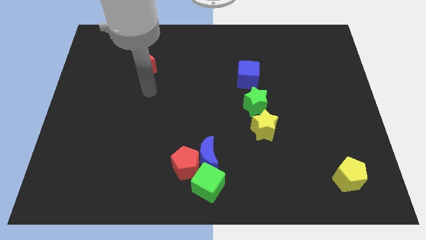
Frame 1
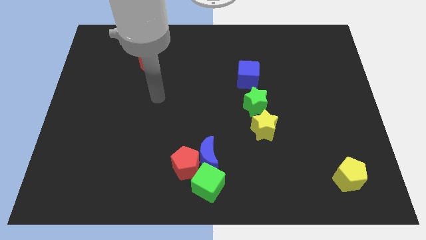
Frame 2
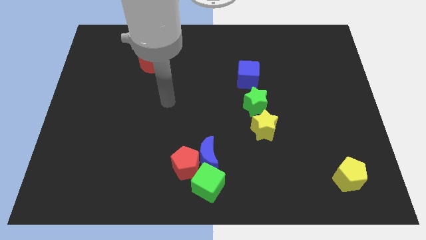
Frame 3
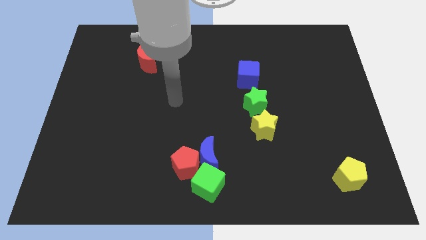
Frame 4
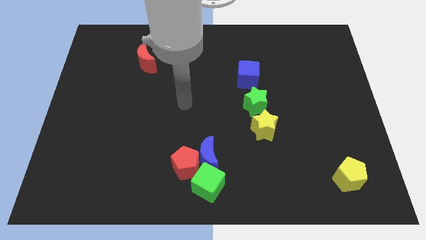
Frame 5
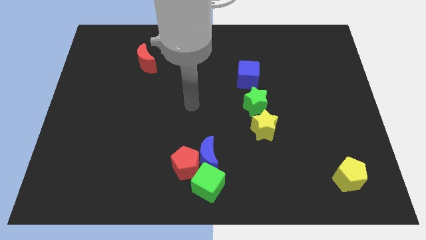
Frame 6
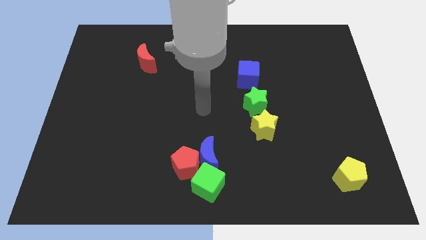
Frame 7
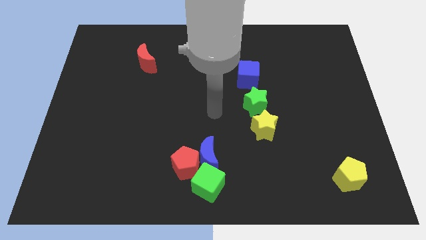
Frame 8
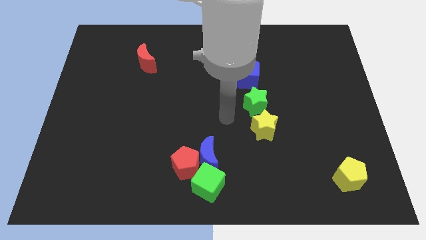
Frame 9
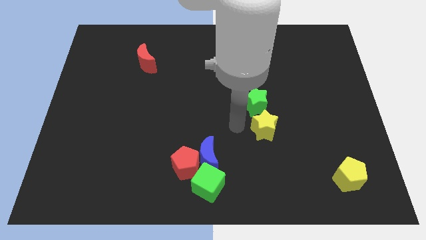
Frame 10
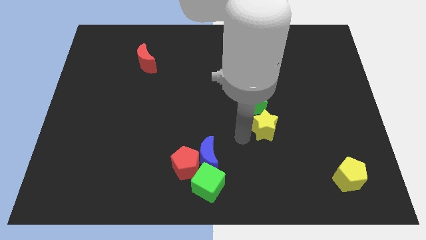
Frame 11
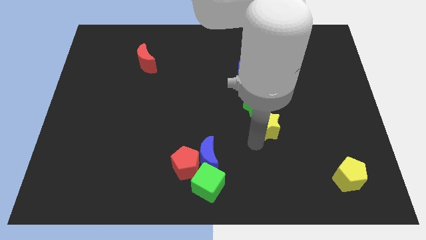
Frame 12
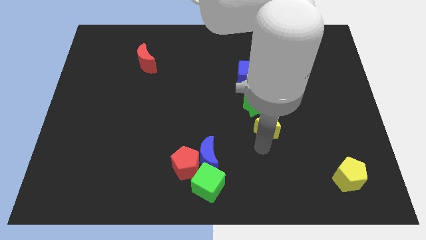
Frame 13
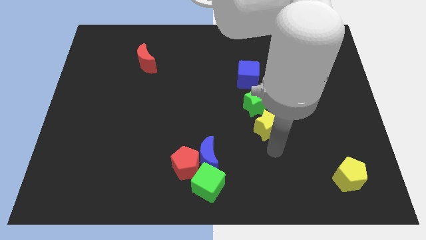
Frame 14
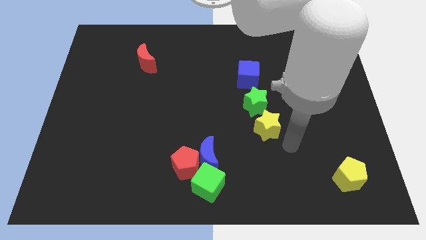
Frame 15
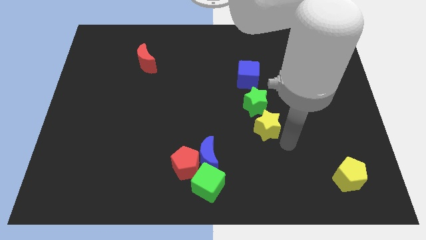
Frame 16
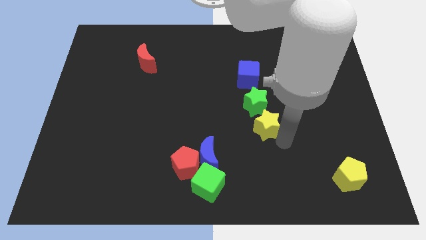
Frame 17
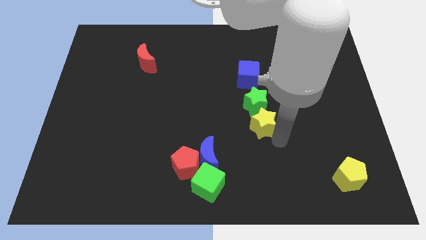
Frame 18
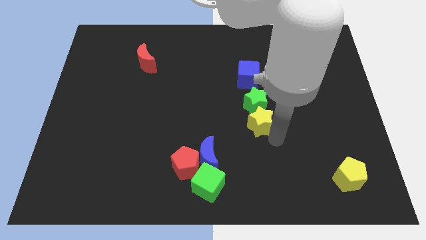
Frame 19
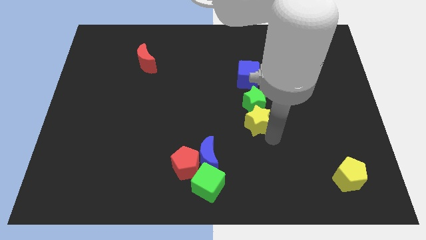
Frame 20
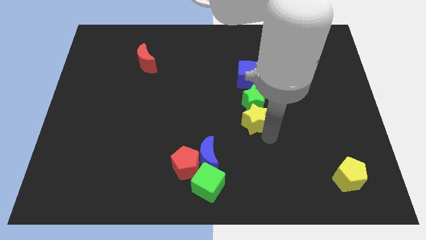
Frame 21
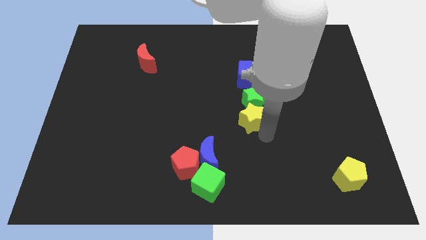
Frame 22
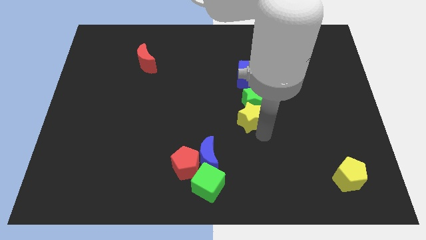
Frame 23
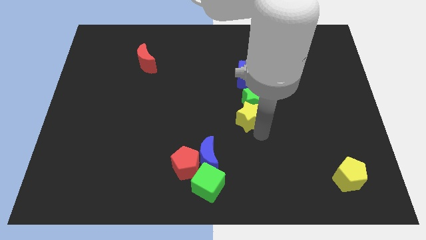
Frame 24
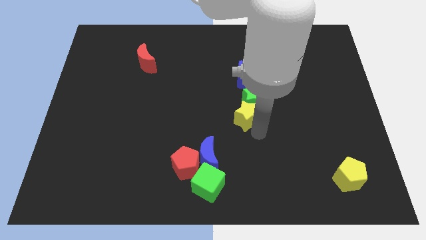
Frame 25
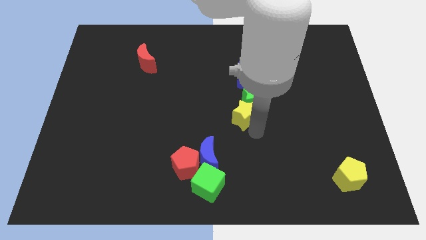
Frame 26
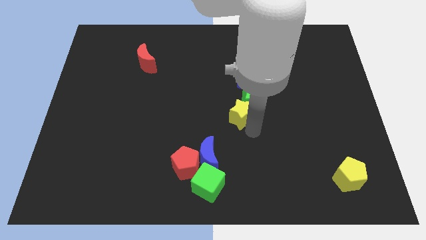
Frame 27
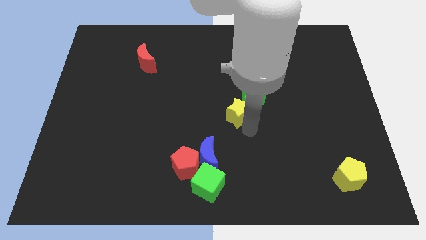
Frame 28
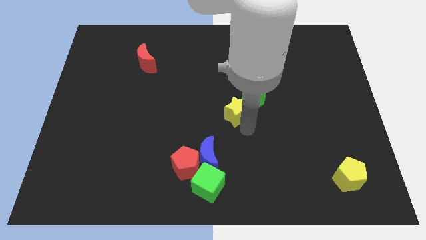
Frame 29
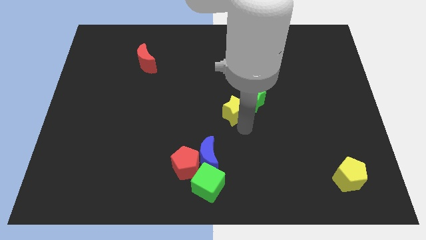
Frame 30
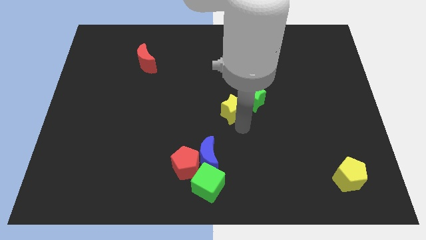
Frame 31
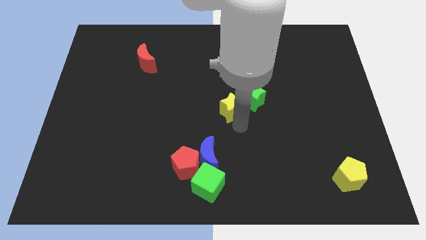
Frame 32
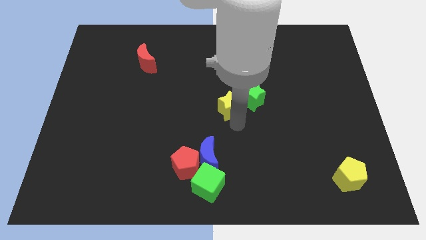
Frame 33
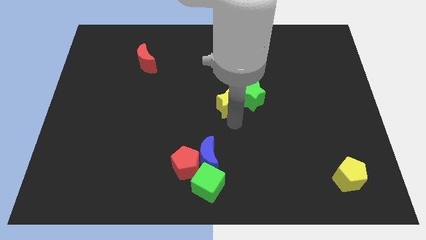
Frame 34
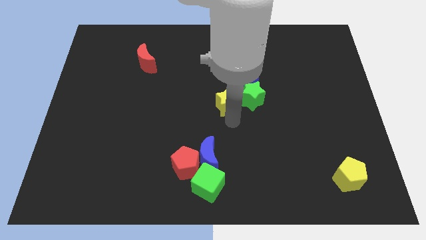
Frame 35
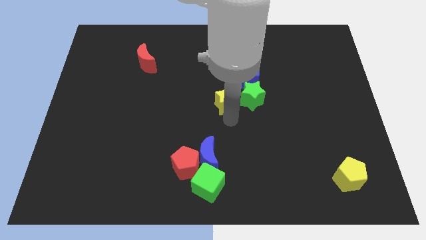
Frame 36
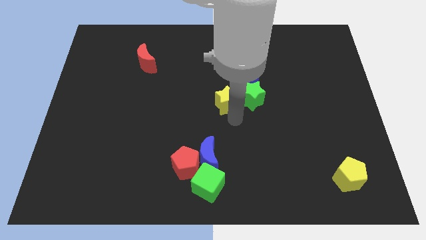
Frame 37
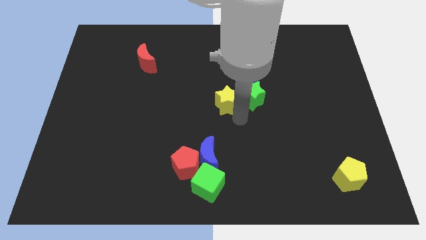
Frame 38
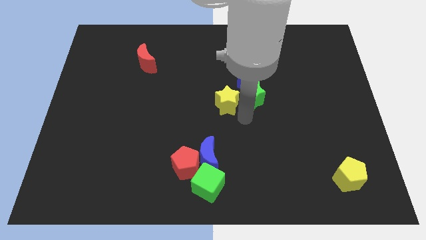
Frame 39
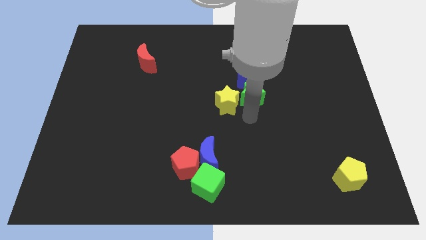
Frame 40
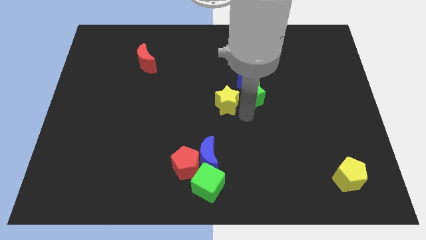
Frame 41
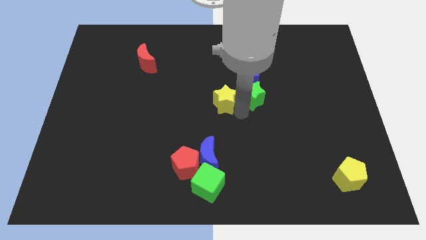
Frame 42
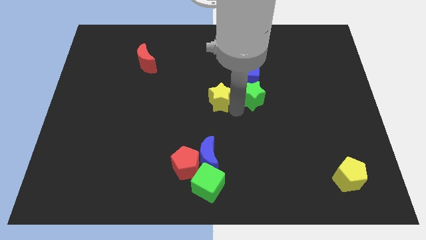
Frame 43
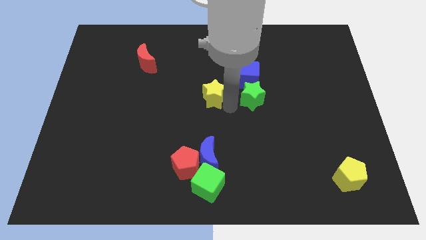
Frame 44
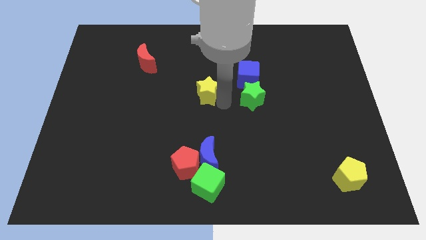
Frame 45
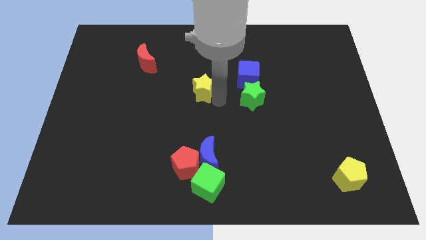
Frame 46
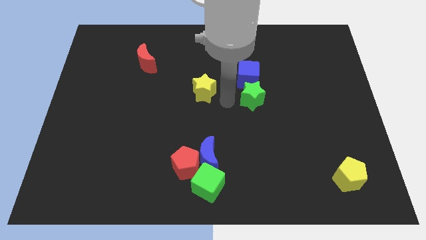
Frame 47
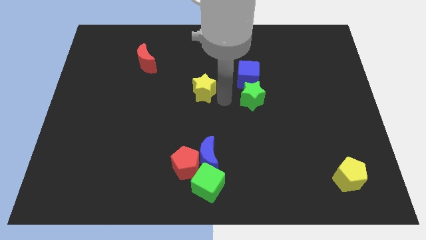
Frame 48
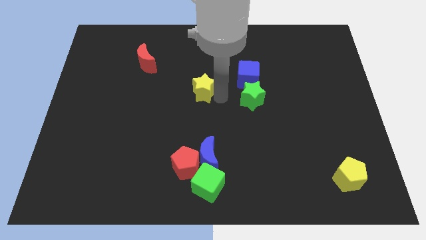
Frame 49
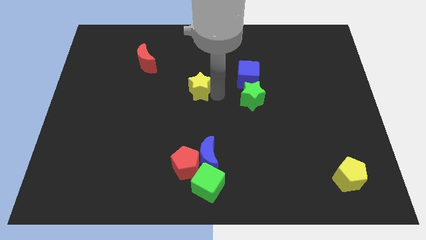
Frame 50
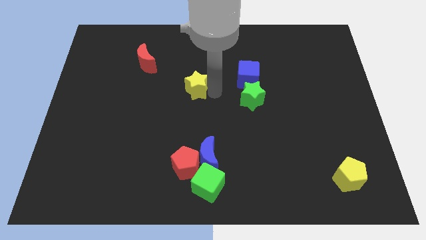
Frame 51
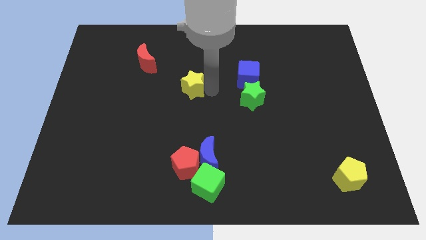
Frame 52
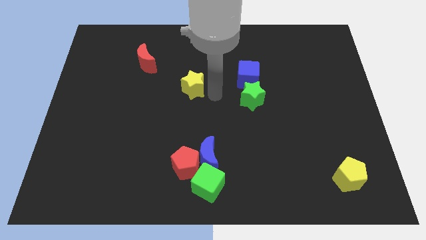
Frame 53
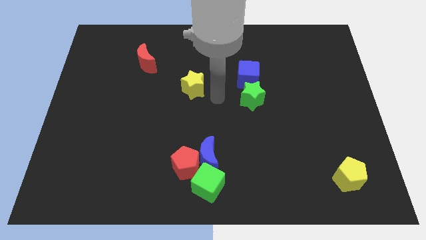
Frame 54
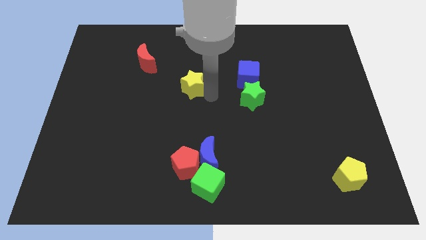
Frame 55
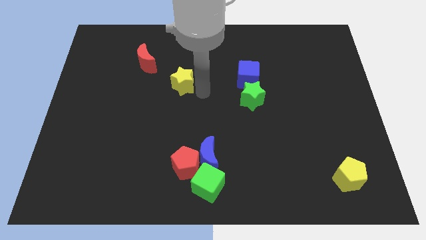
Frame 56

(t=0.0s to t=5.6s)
put the yellow star to the bottom right of the red moon

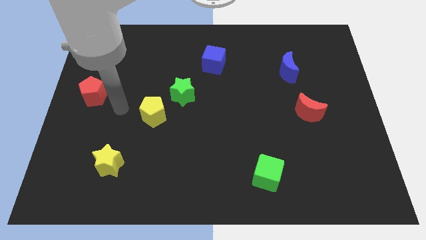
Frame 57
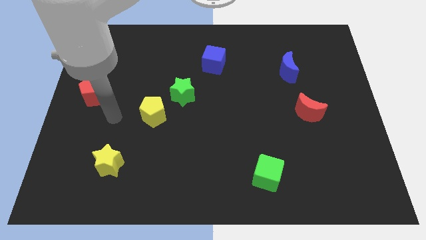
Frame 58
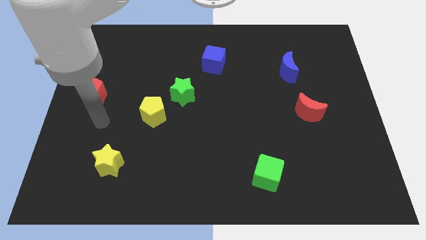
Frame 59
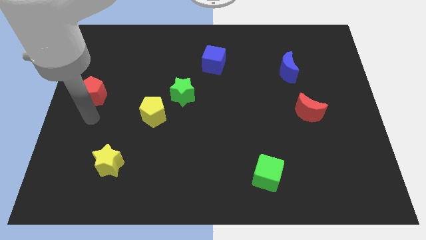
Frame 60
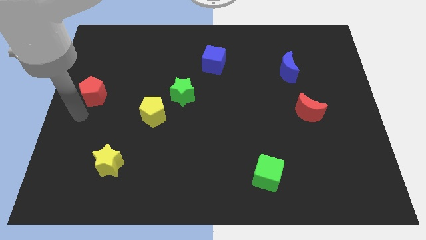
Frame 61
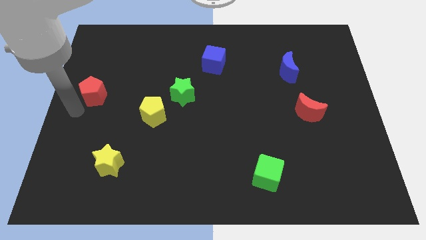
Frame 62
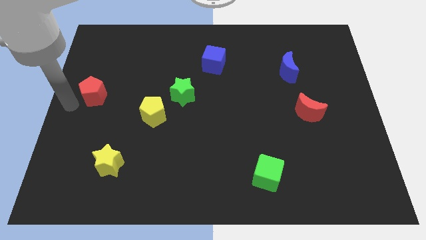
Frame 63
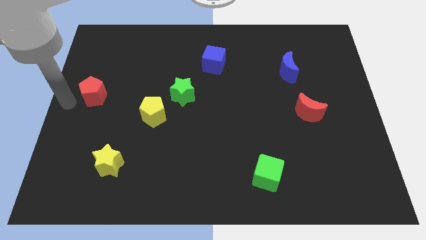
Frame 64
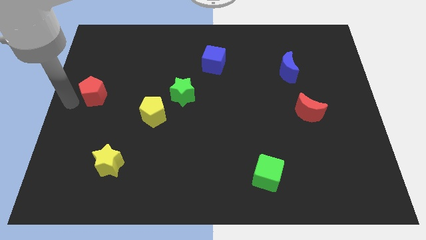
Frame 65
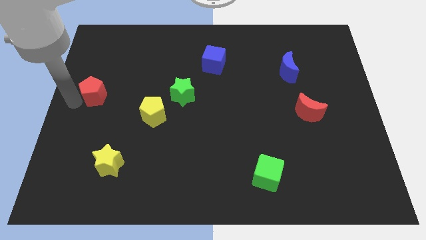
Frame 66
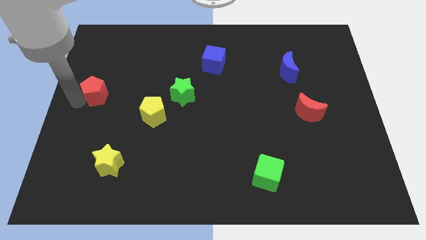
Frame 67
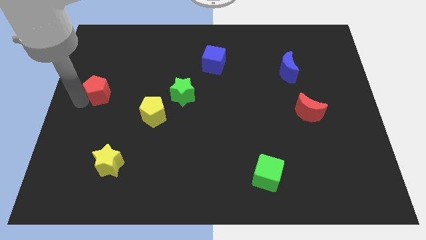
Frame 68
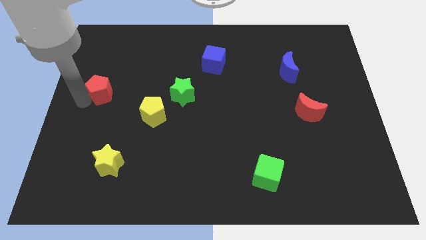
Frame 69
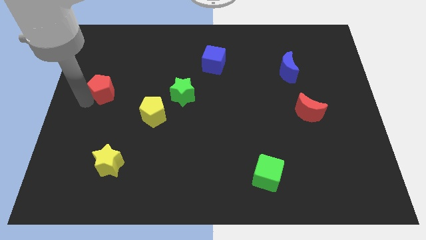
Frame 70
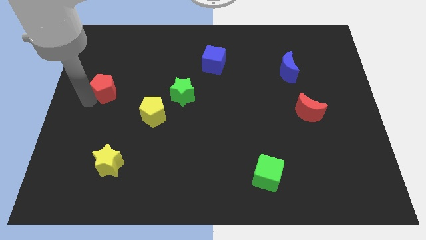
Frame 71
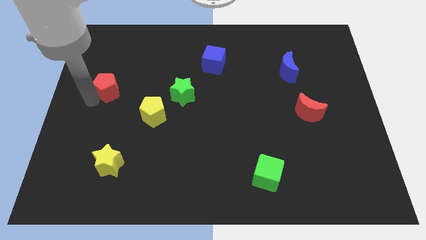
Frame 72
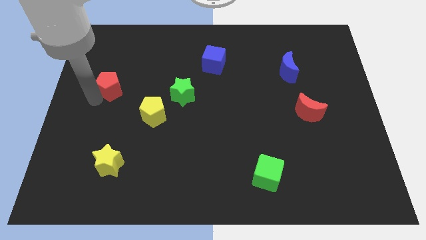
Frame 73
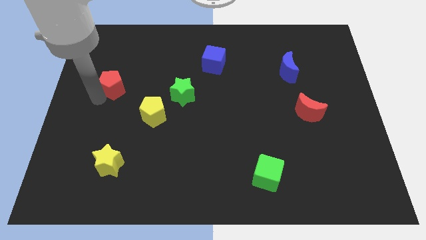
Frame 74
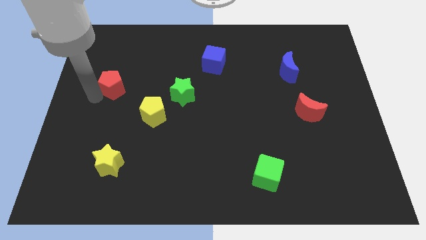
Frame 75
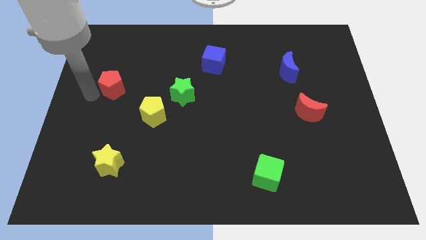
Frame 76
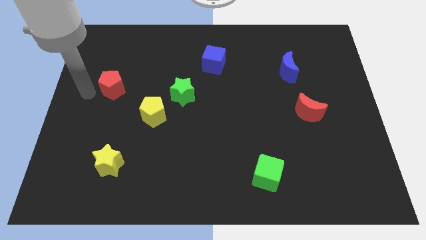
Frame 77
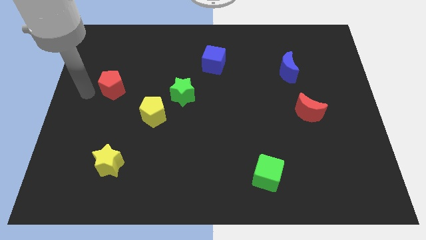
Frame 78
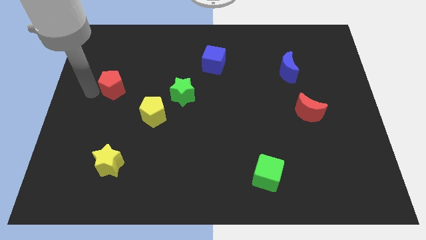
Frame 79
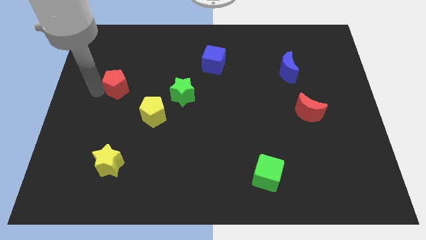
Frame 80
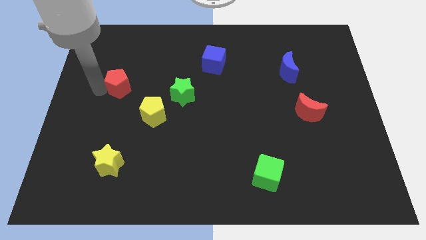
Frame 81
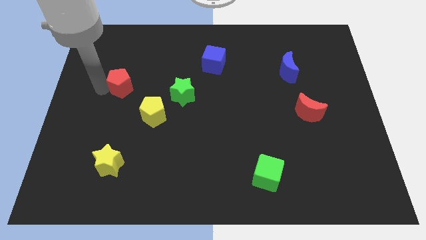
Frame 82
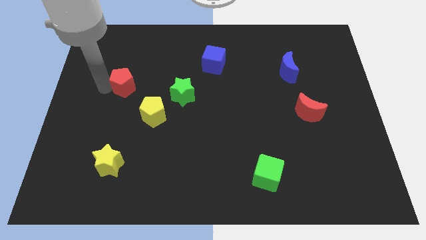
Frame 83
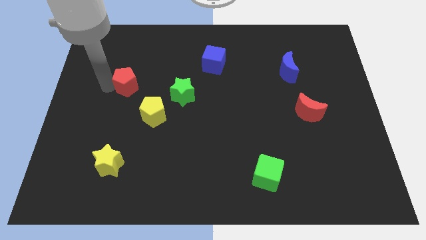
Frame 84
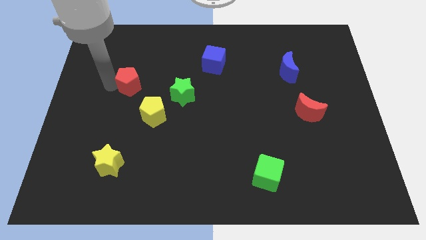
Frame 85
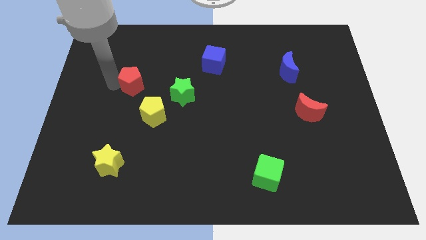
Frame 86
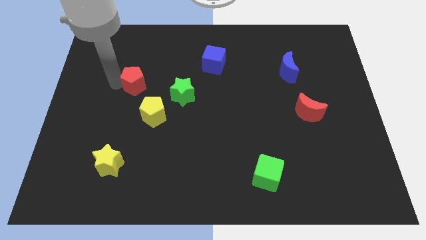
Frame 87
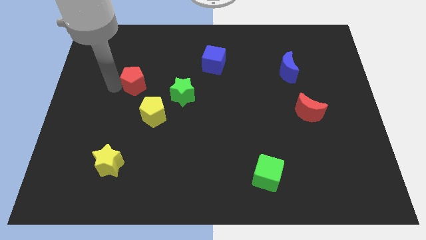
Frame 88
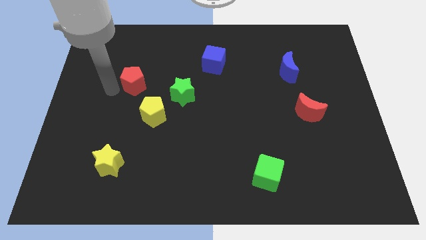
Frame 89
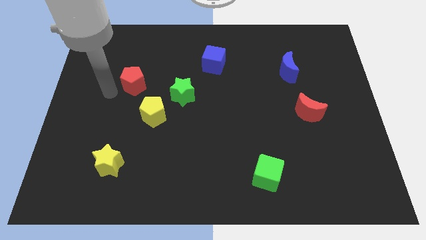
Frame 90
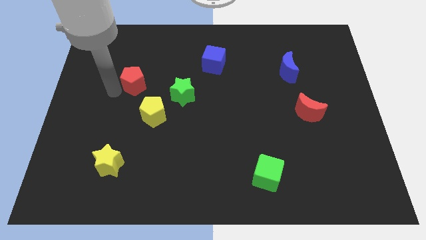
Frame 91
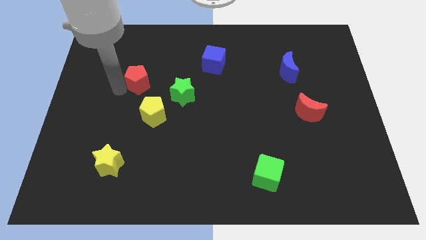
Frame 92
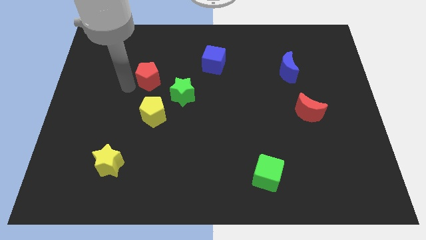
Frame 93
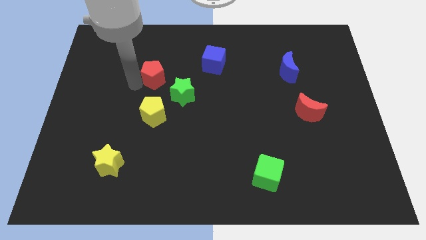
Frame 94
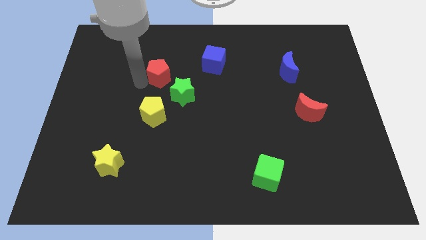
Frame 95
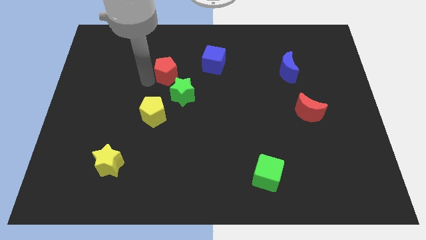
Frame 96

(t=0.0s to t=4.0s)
slide the red pentagon to the top of the green star
